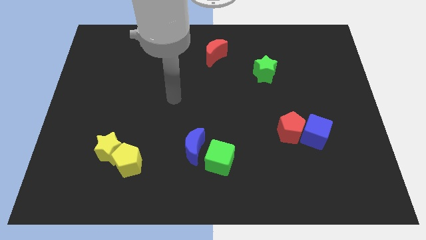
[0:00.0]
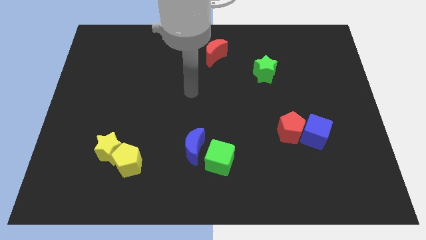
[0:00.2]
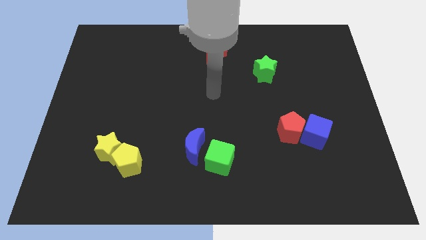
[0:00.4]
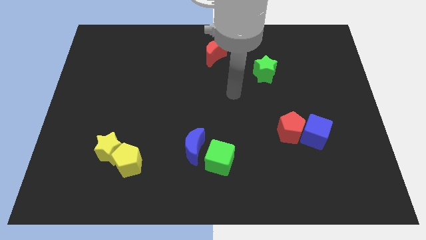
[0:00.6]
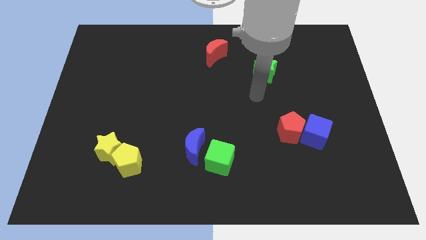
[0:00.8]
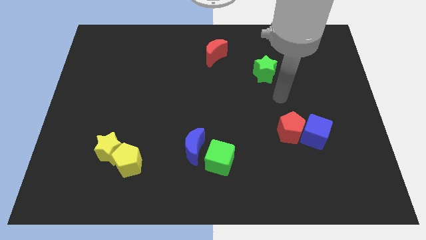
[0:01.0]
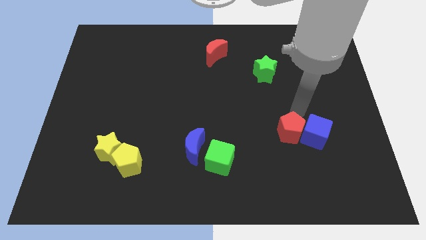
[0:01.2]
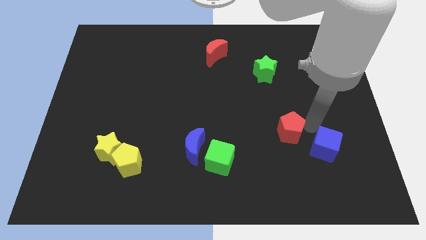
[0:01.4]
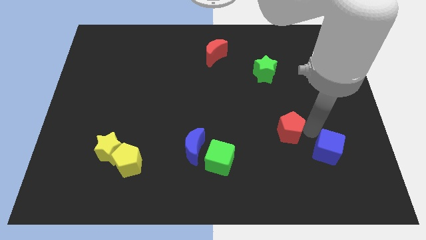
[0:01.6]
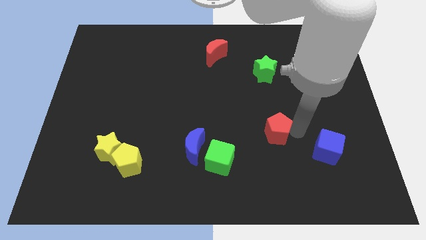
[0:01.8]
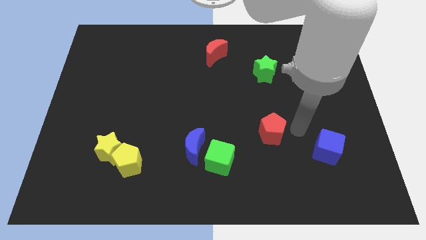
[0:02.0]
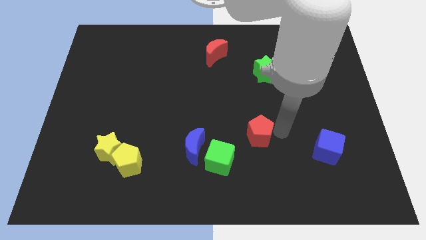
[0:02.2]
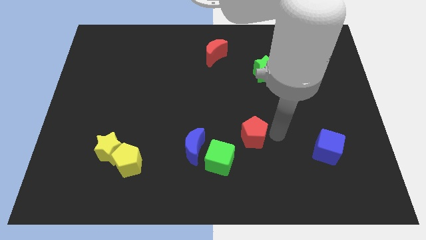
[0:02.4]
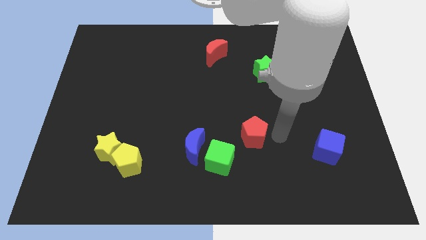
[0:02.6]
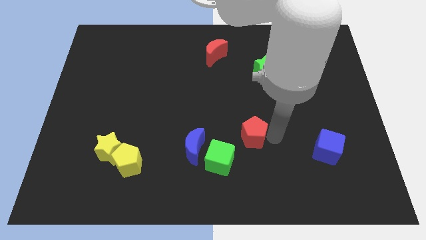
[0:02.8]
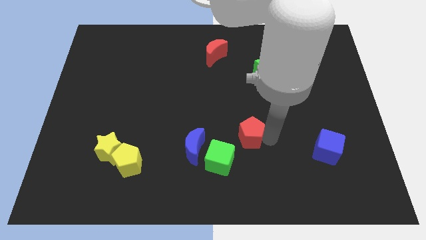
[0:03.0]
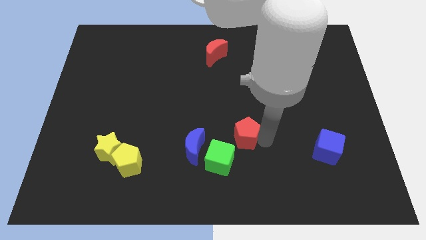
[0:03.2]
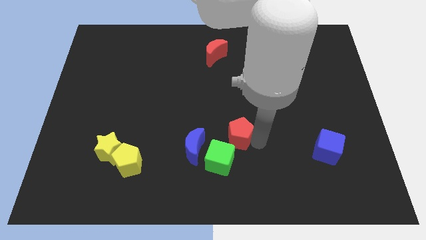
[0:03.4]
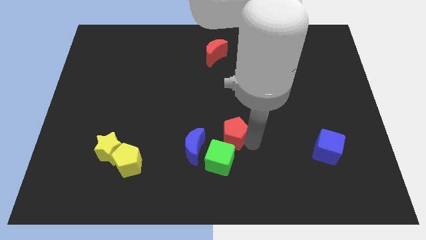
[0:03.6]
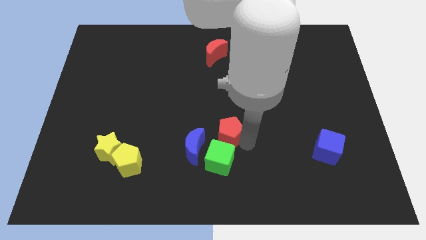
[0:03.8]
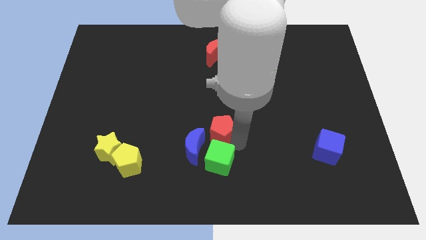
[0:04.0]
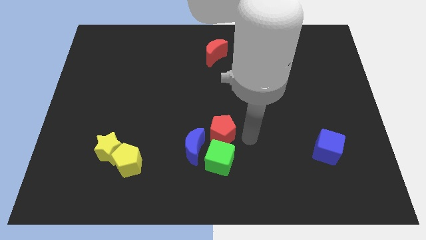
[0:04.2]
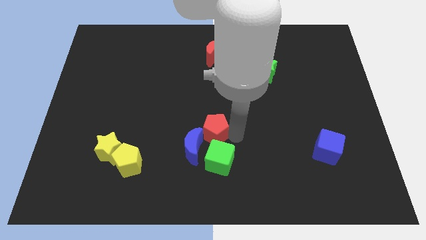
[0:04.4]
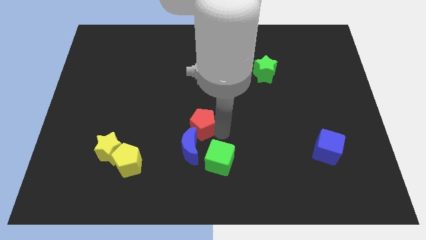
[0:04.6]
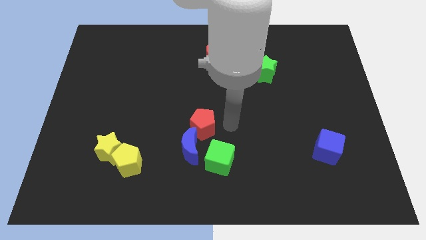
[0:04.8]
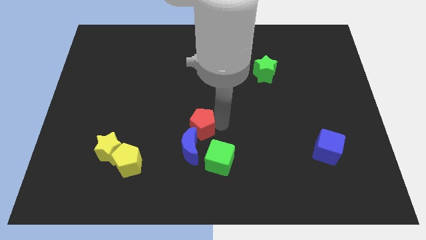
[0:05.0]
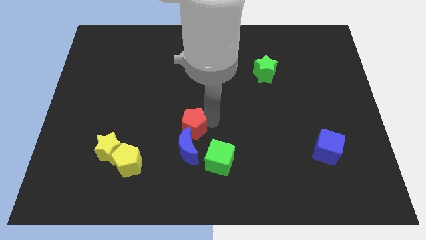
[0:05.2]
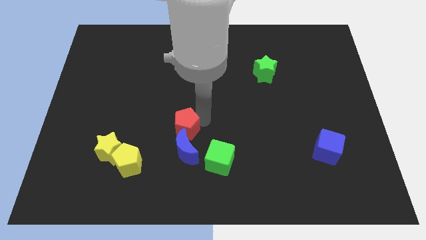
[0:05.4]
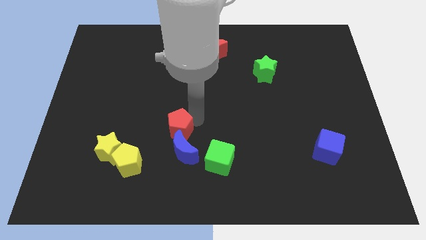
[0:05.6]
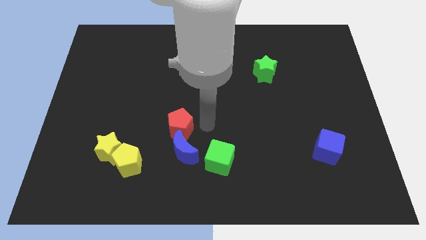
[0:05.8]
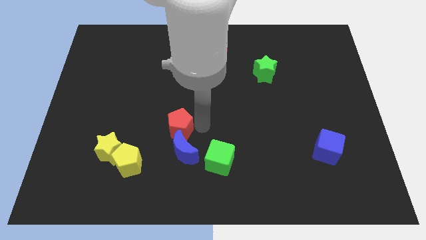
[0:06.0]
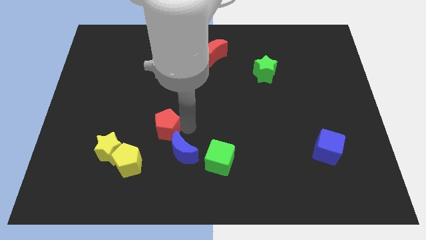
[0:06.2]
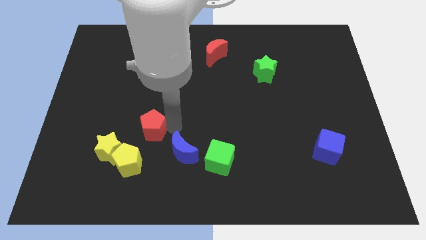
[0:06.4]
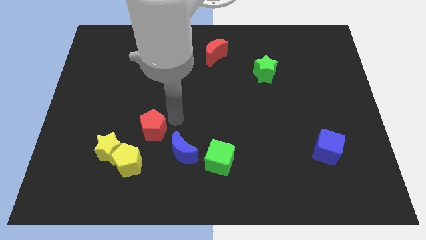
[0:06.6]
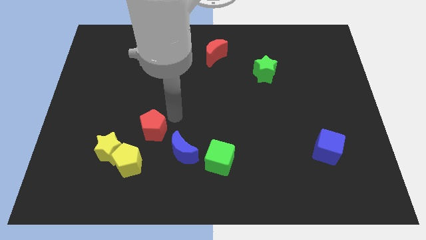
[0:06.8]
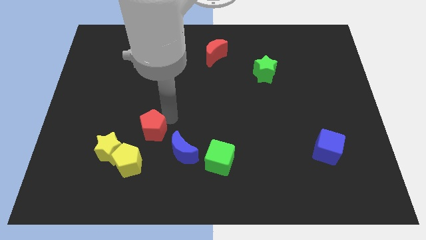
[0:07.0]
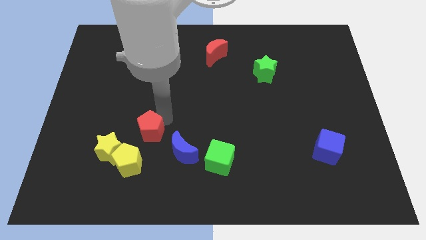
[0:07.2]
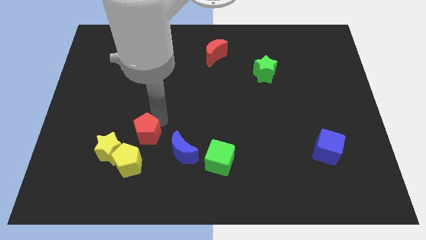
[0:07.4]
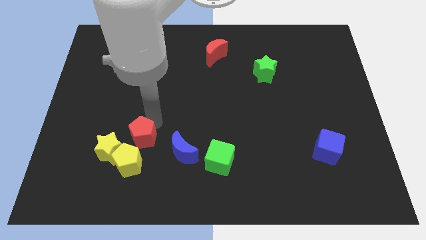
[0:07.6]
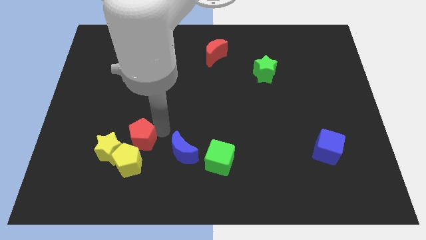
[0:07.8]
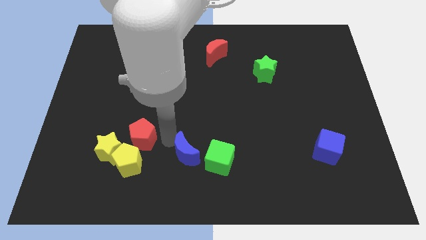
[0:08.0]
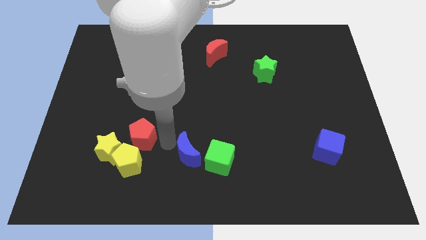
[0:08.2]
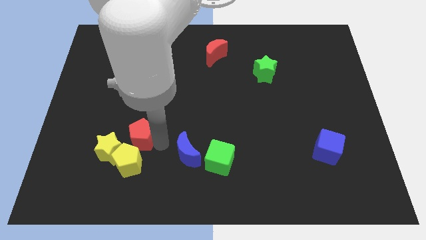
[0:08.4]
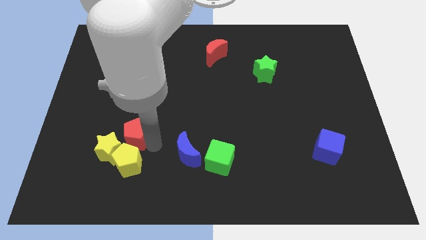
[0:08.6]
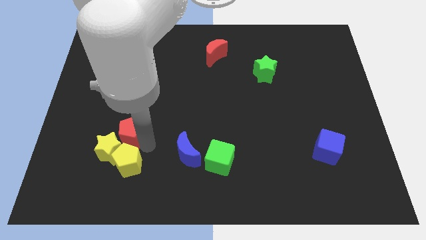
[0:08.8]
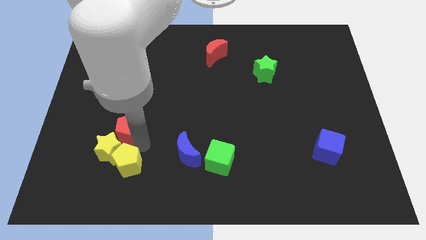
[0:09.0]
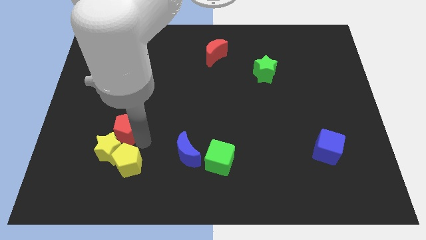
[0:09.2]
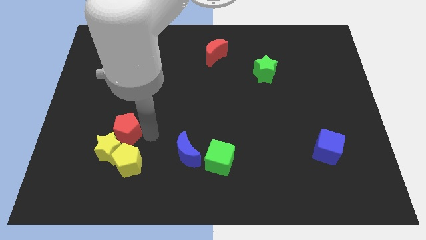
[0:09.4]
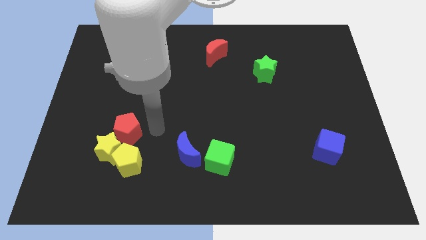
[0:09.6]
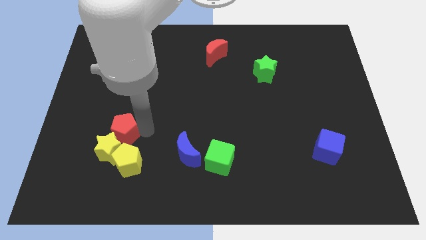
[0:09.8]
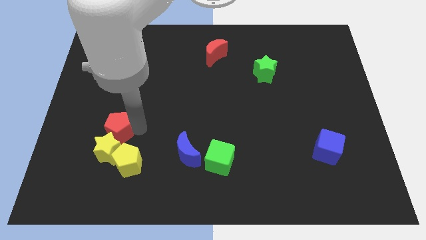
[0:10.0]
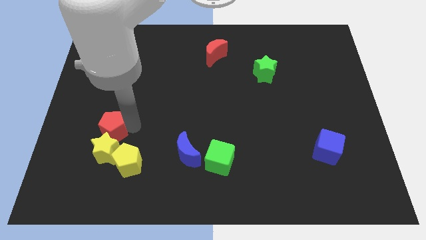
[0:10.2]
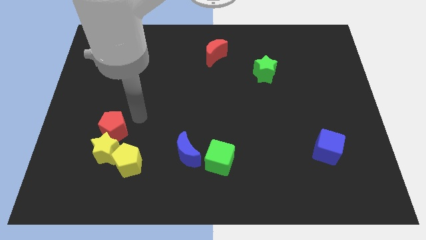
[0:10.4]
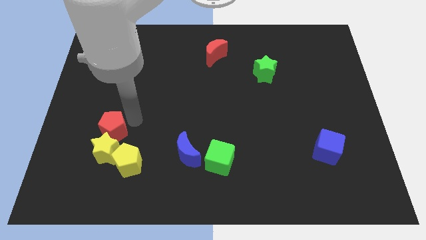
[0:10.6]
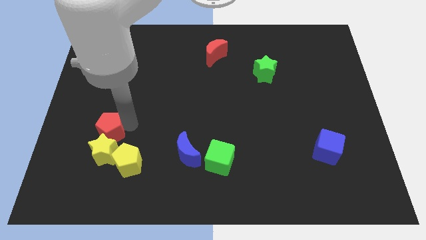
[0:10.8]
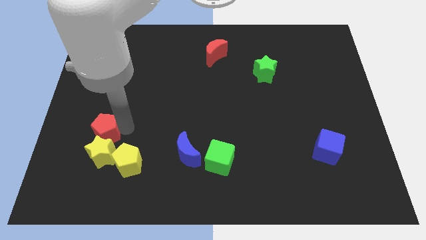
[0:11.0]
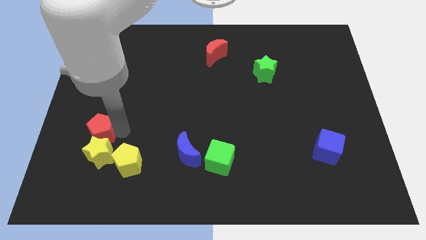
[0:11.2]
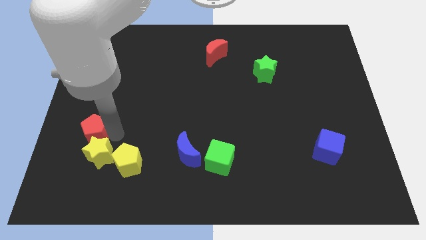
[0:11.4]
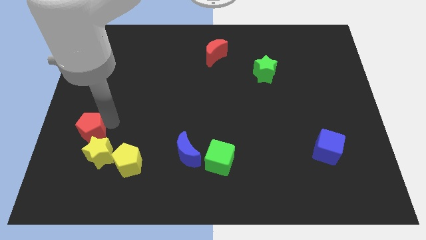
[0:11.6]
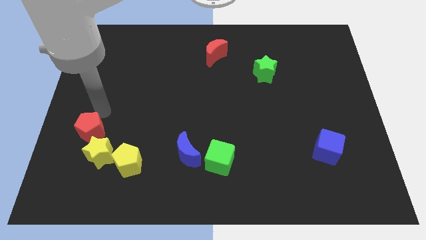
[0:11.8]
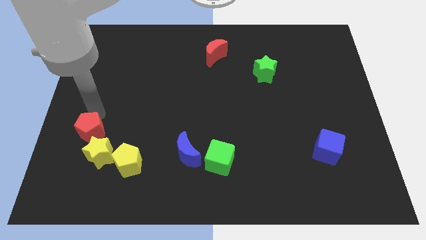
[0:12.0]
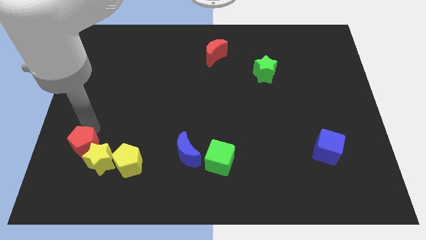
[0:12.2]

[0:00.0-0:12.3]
slide the red pentagon just left of the yellow pentagon
